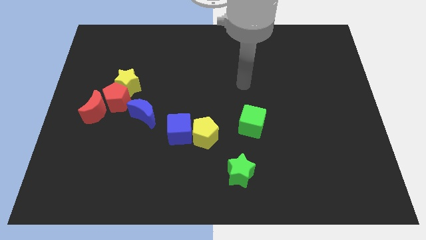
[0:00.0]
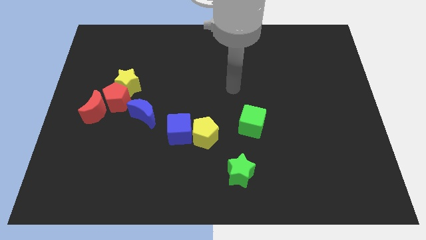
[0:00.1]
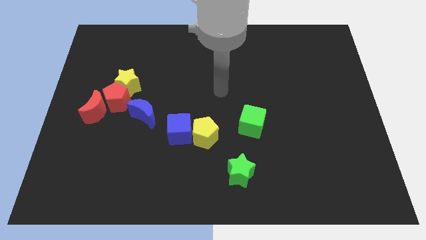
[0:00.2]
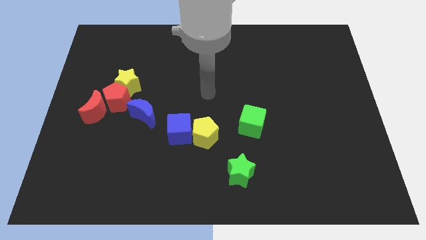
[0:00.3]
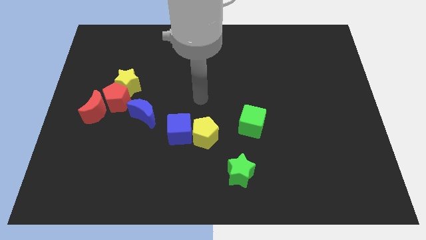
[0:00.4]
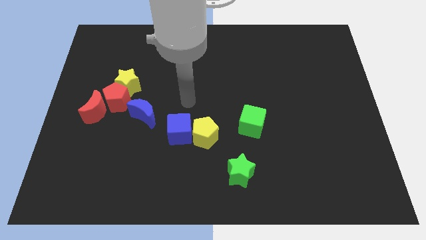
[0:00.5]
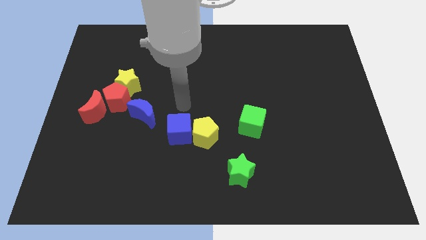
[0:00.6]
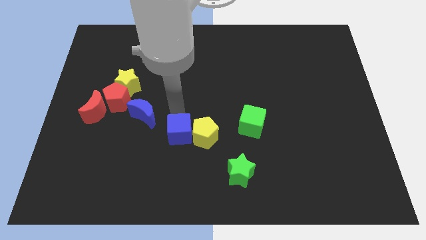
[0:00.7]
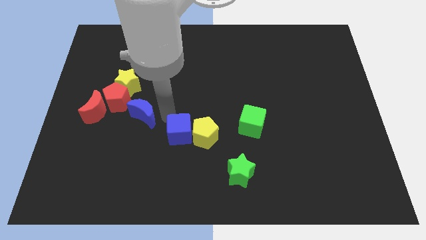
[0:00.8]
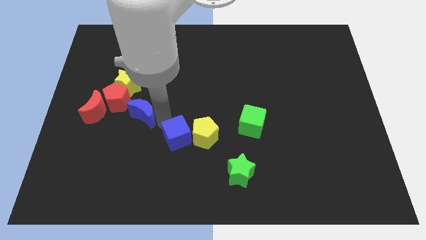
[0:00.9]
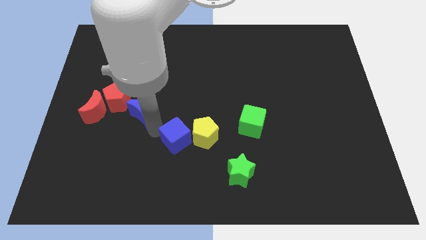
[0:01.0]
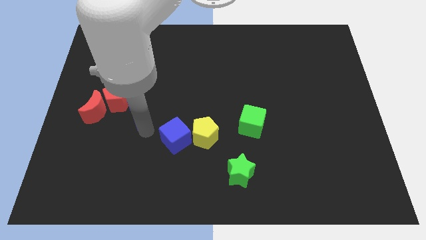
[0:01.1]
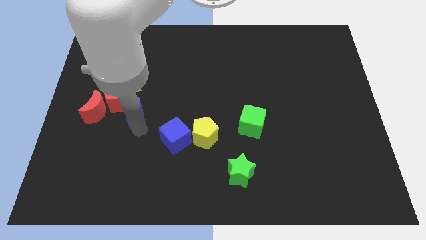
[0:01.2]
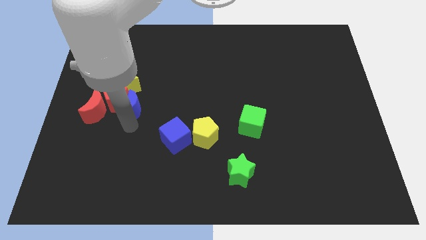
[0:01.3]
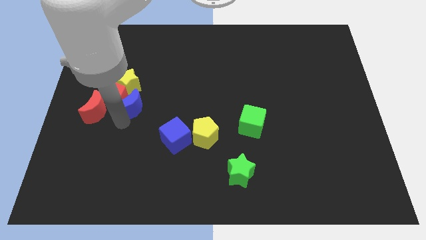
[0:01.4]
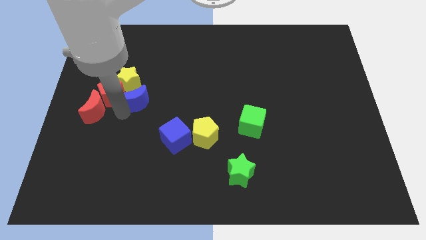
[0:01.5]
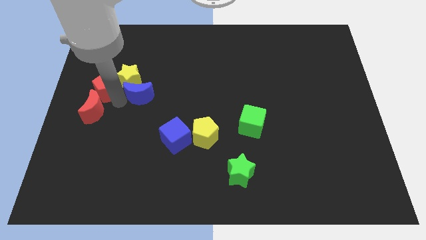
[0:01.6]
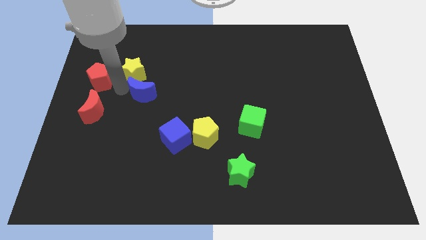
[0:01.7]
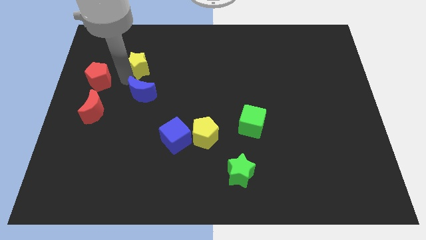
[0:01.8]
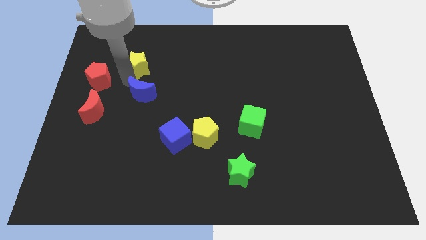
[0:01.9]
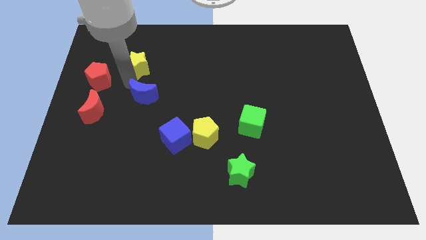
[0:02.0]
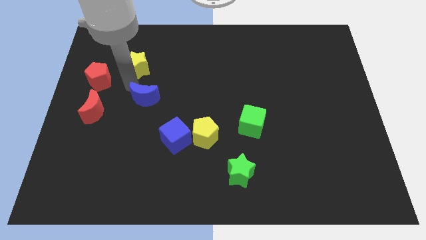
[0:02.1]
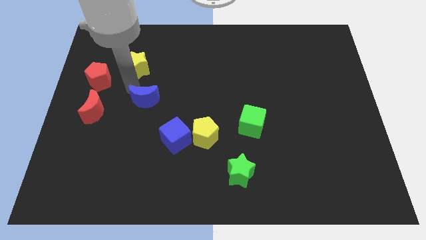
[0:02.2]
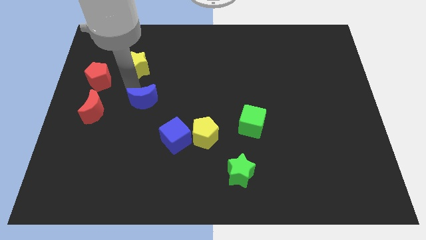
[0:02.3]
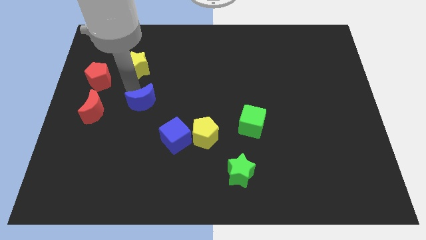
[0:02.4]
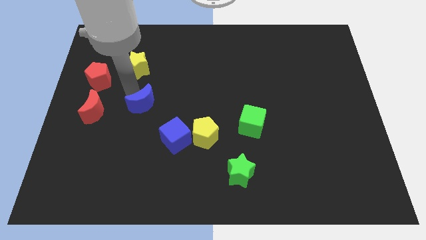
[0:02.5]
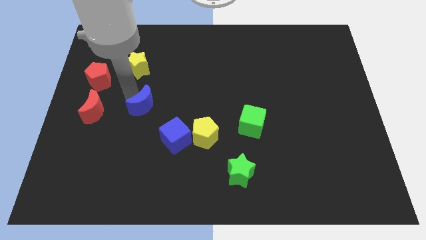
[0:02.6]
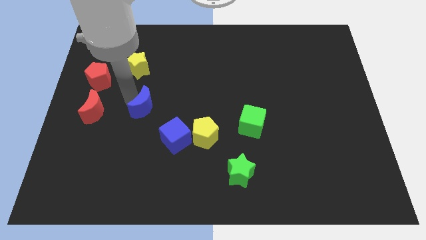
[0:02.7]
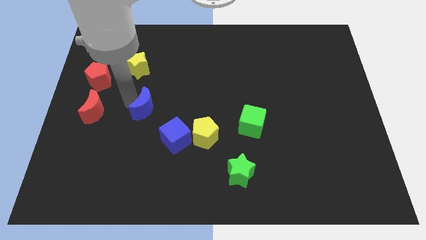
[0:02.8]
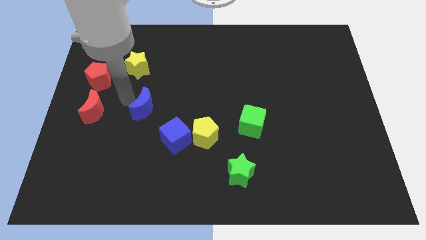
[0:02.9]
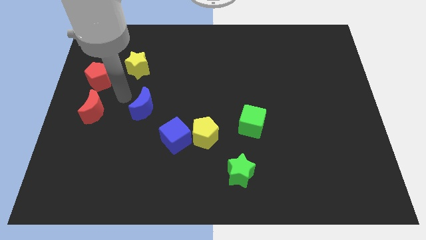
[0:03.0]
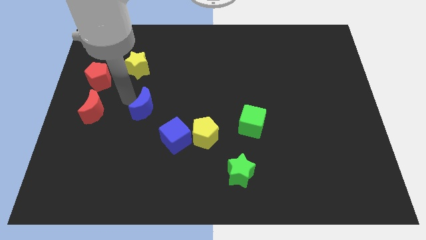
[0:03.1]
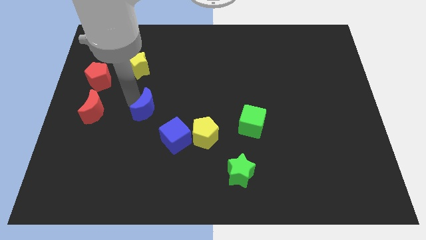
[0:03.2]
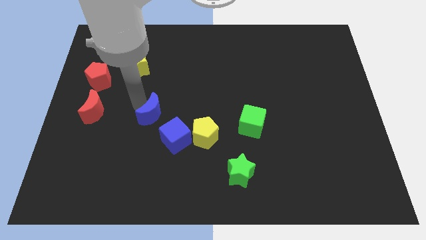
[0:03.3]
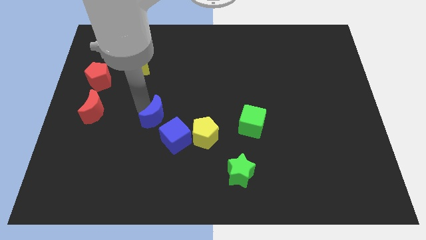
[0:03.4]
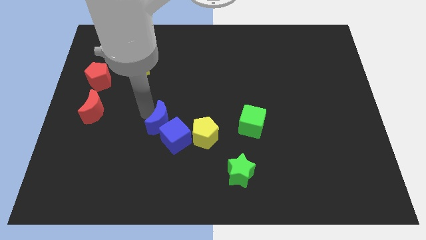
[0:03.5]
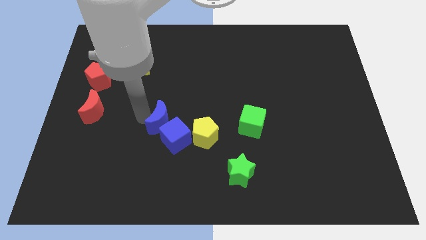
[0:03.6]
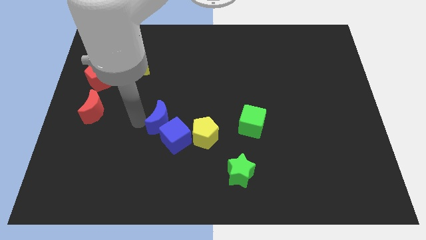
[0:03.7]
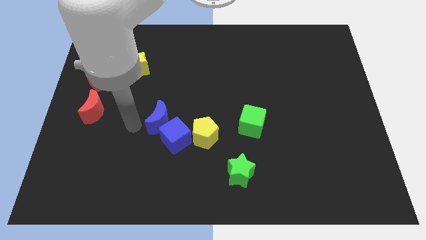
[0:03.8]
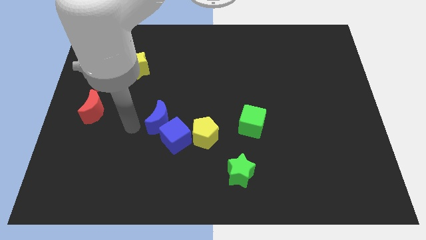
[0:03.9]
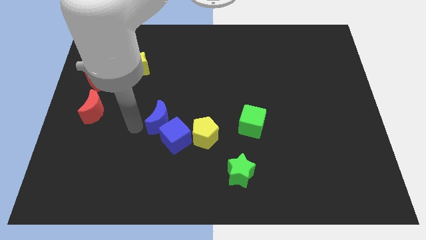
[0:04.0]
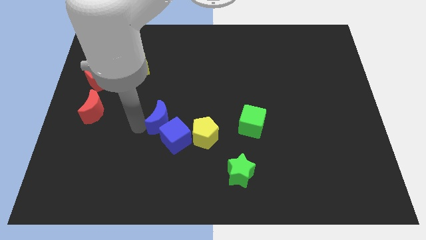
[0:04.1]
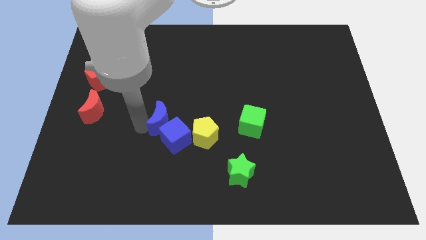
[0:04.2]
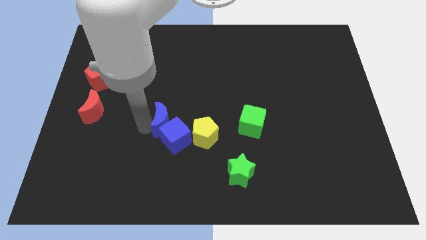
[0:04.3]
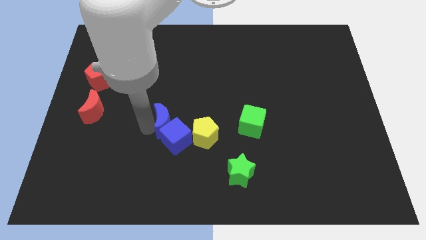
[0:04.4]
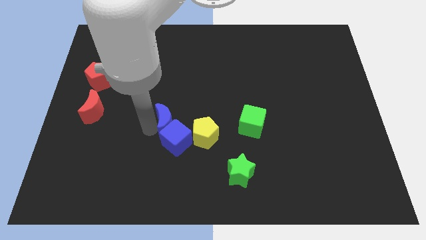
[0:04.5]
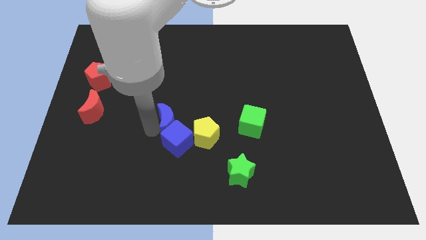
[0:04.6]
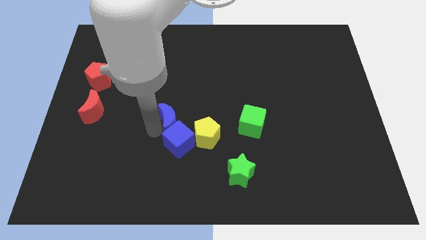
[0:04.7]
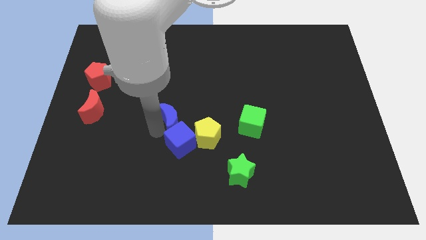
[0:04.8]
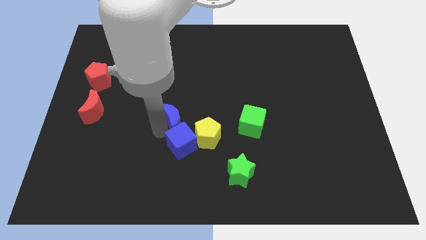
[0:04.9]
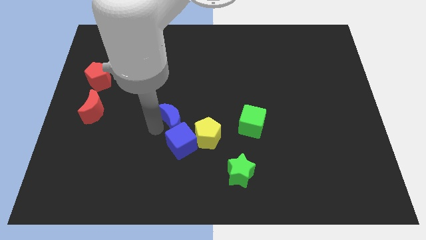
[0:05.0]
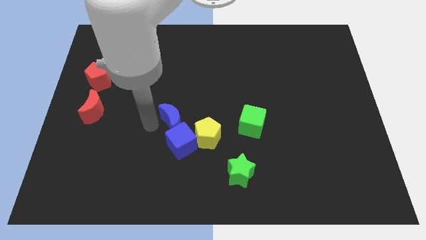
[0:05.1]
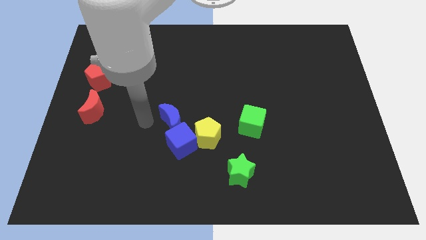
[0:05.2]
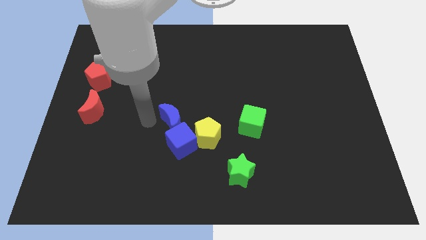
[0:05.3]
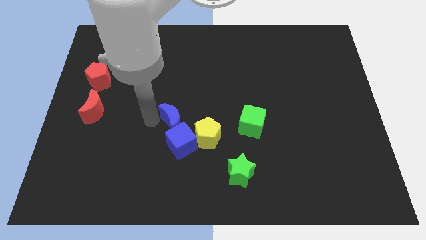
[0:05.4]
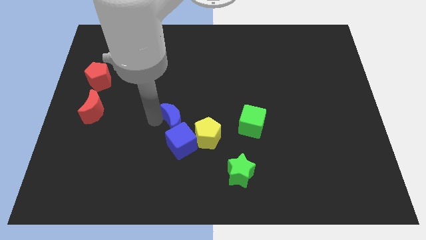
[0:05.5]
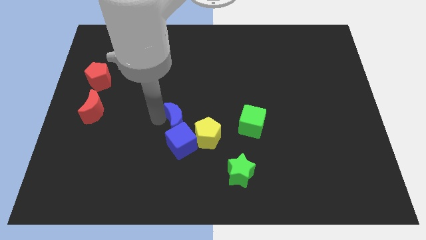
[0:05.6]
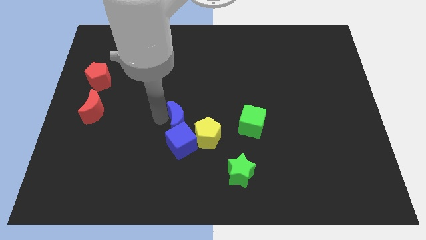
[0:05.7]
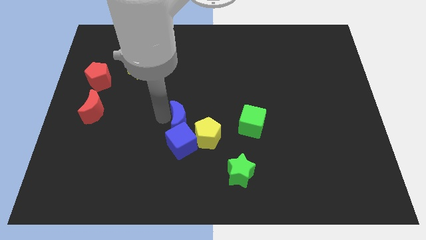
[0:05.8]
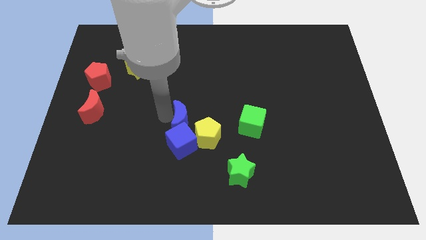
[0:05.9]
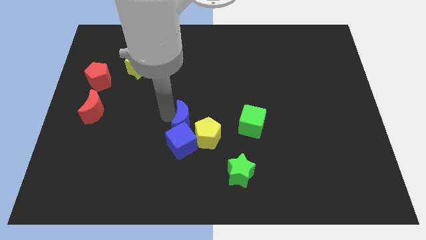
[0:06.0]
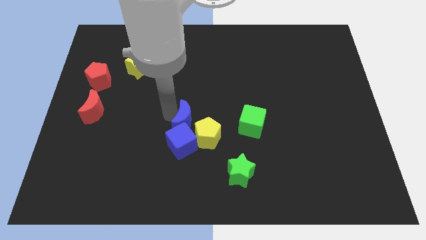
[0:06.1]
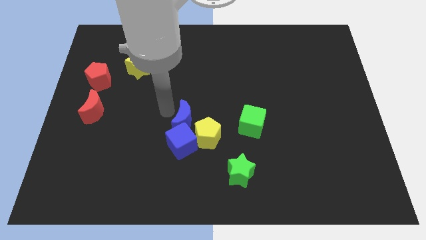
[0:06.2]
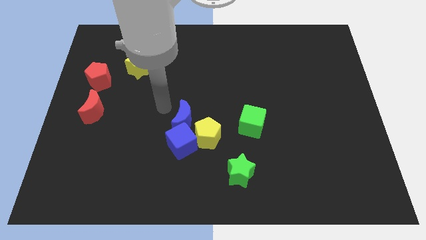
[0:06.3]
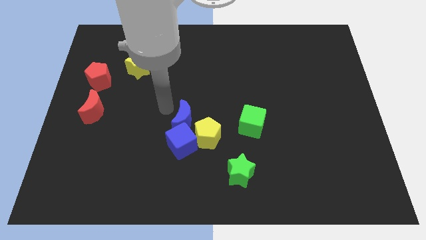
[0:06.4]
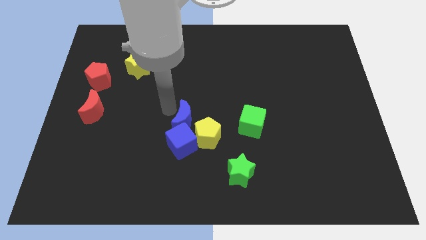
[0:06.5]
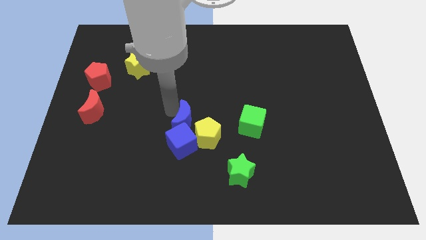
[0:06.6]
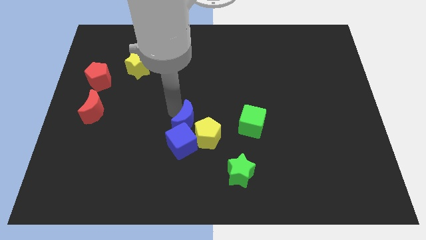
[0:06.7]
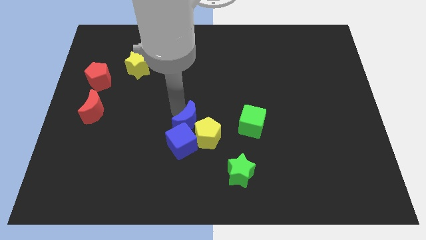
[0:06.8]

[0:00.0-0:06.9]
slide the blue moon towards the yellow pentagon

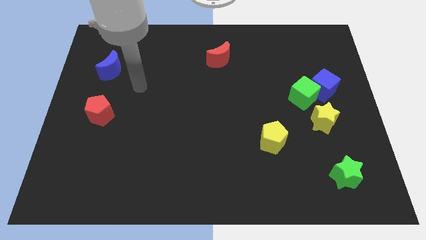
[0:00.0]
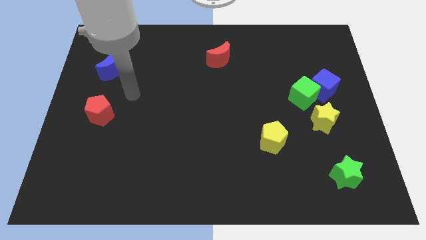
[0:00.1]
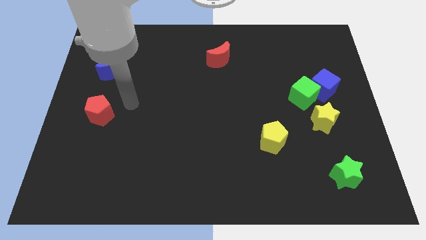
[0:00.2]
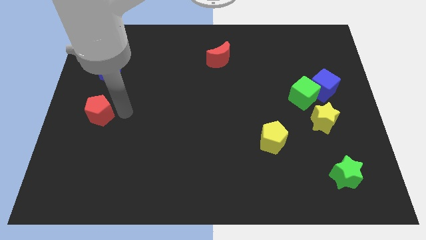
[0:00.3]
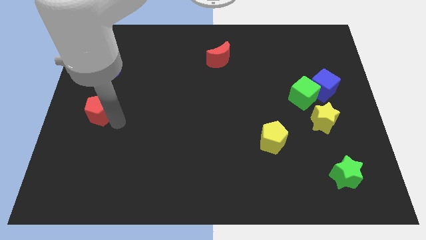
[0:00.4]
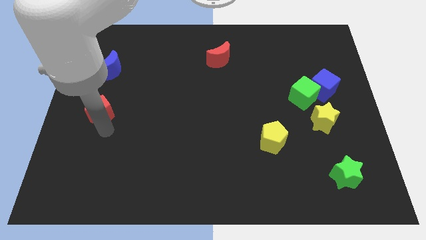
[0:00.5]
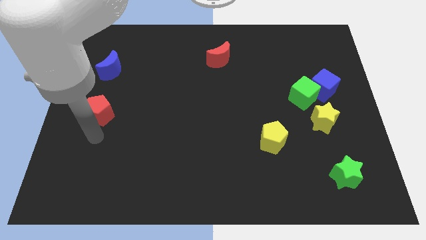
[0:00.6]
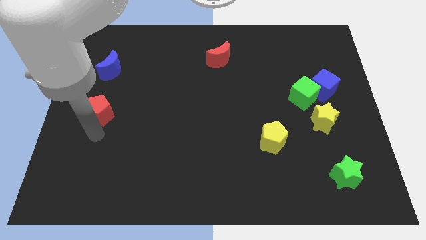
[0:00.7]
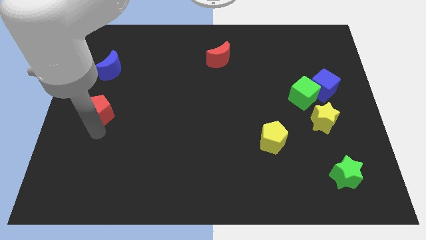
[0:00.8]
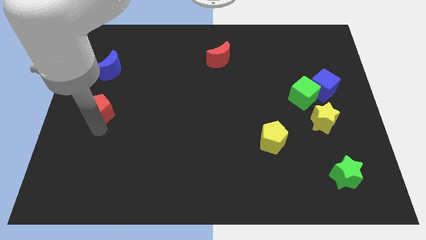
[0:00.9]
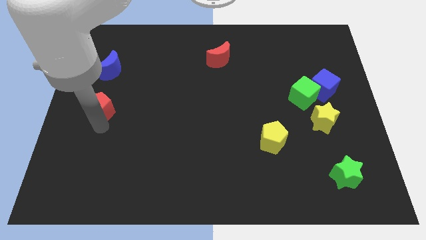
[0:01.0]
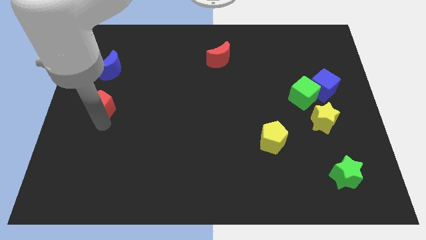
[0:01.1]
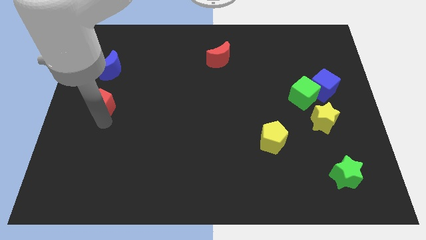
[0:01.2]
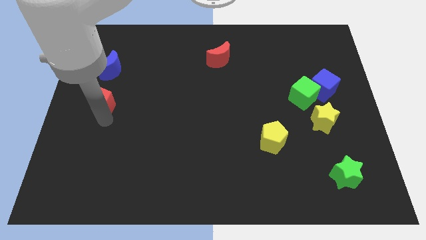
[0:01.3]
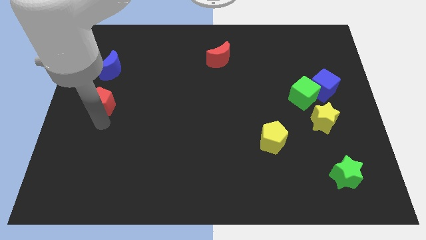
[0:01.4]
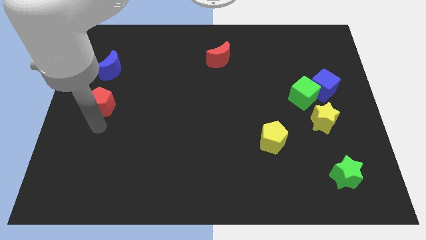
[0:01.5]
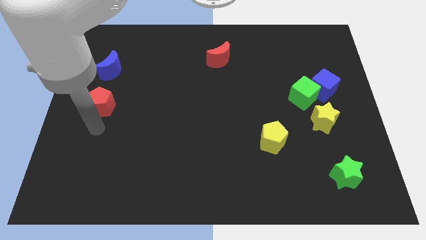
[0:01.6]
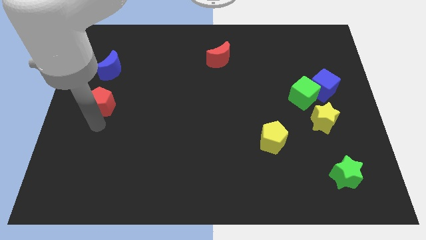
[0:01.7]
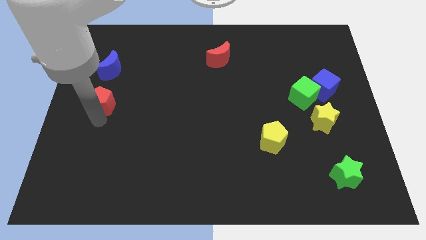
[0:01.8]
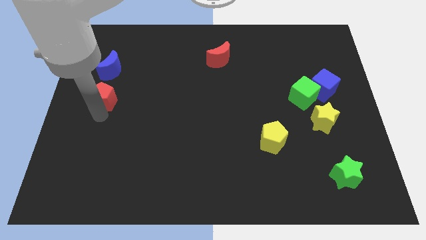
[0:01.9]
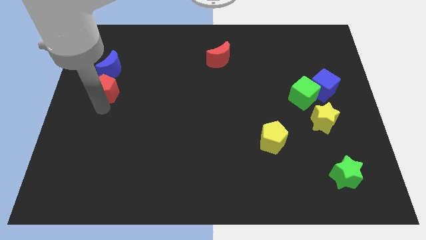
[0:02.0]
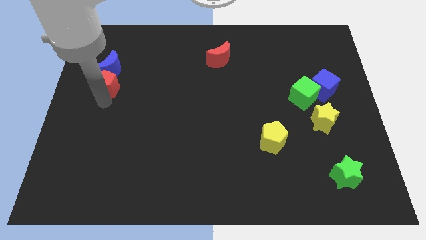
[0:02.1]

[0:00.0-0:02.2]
slide the red pentagon next to the blue moon
